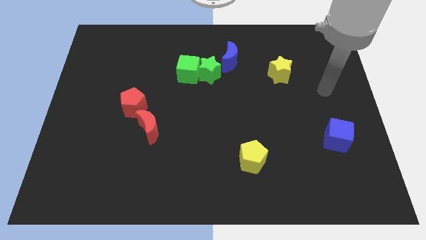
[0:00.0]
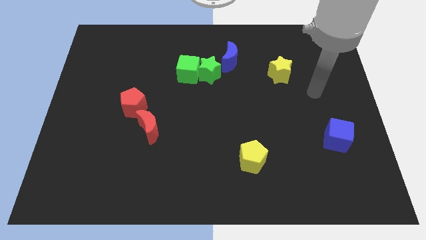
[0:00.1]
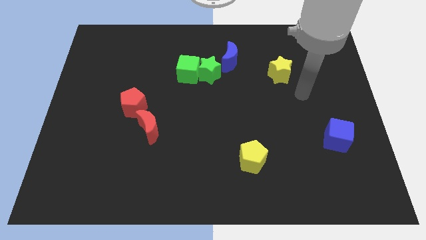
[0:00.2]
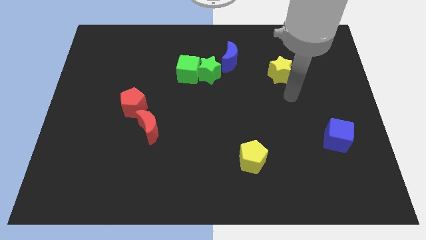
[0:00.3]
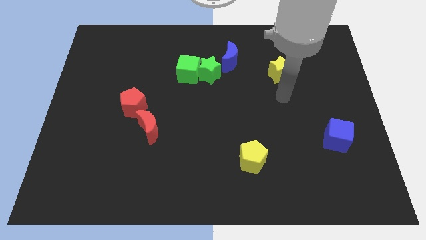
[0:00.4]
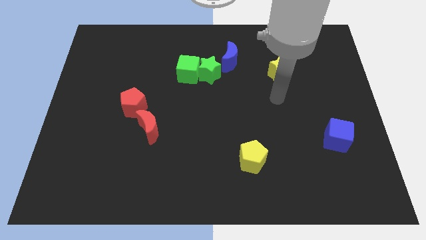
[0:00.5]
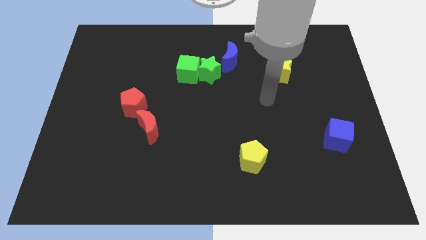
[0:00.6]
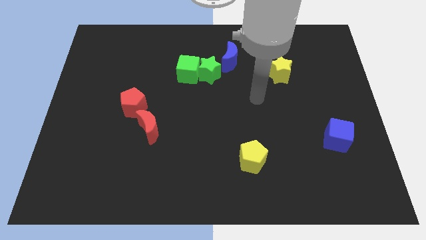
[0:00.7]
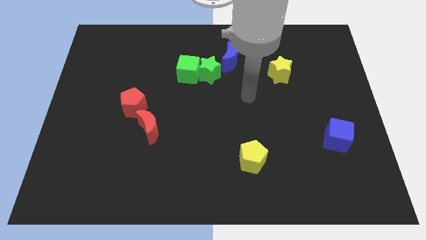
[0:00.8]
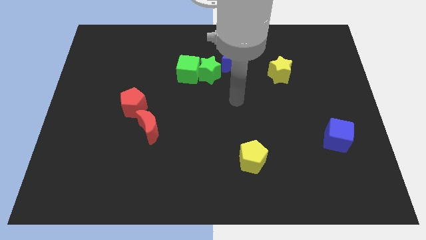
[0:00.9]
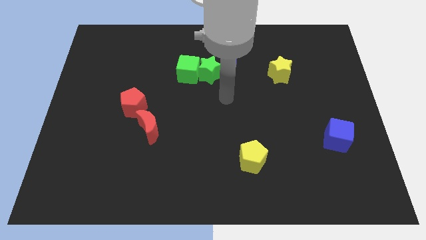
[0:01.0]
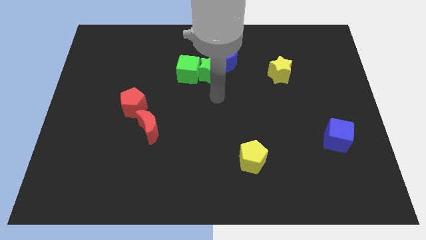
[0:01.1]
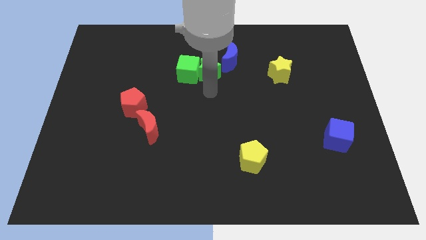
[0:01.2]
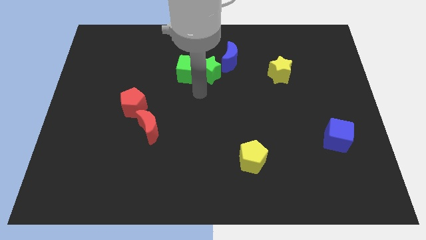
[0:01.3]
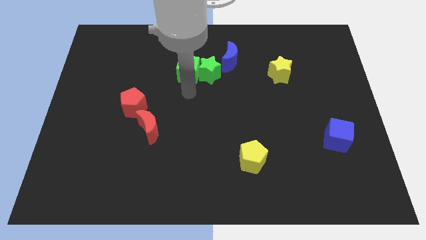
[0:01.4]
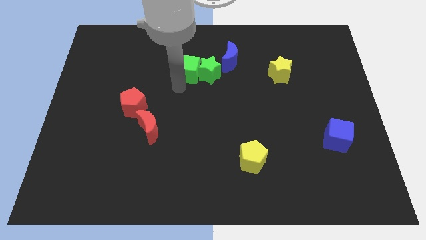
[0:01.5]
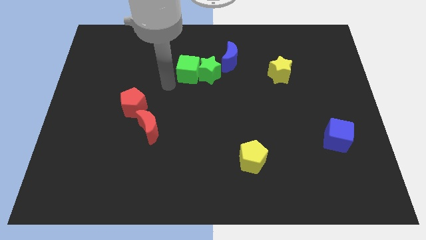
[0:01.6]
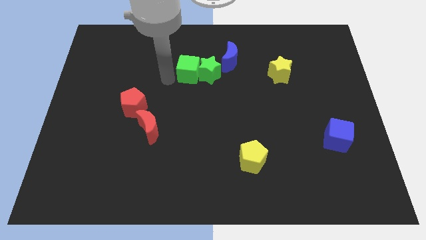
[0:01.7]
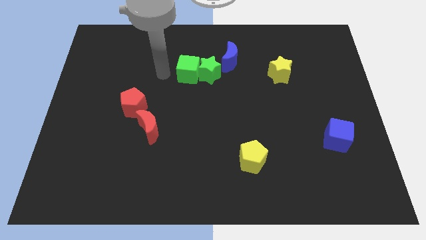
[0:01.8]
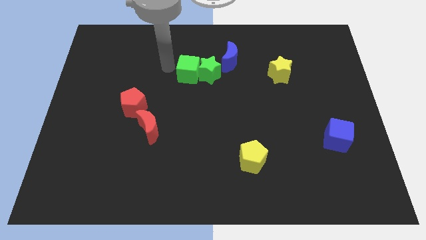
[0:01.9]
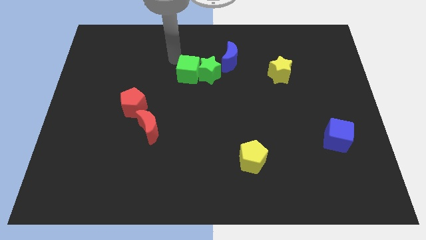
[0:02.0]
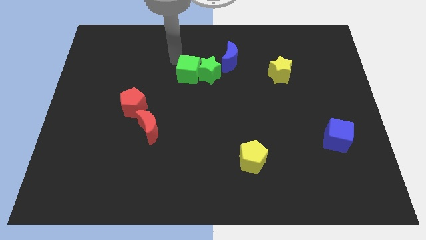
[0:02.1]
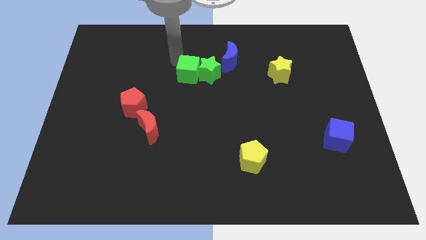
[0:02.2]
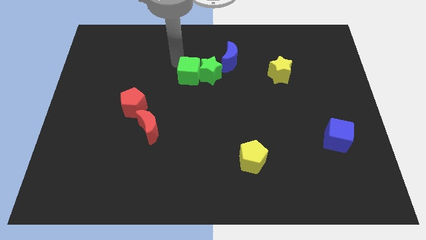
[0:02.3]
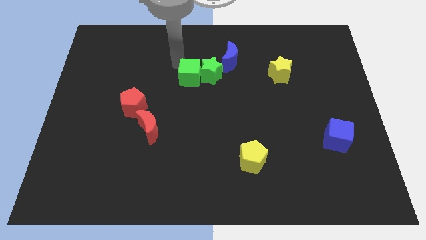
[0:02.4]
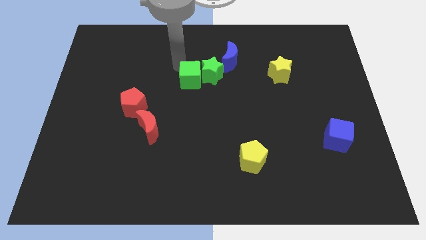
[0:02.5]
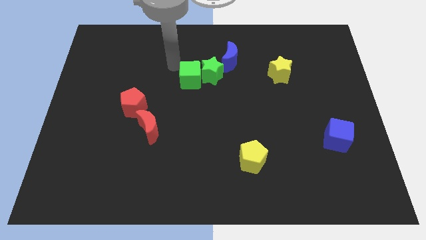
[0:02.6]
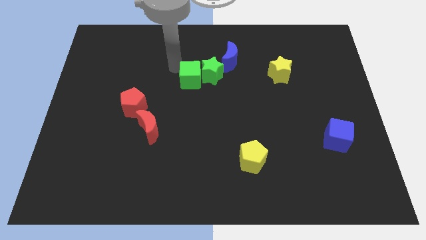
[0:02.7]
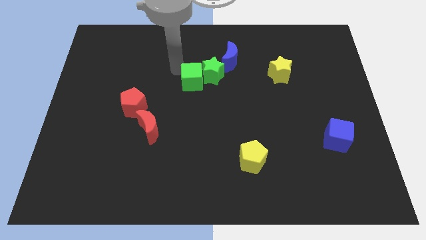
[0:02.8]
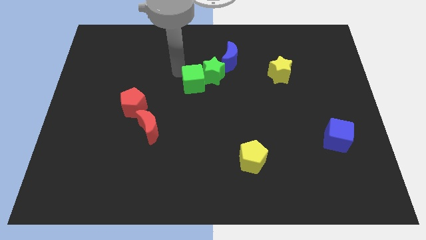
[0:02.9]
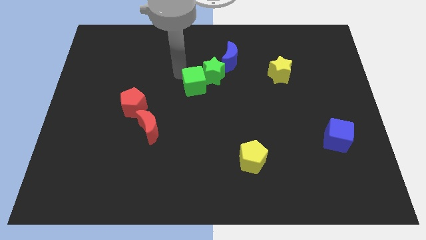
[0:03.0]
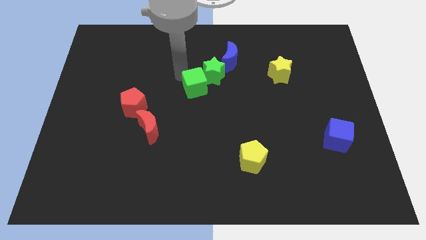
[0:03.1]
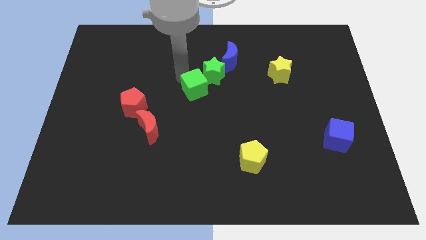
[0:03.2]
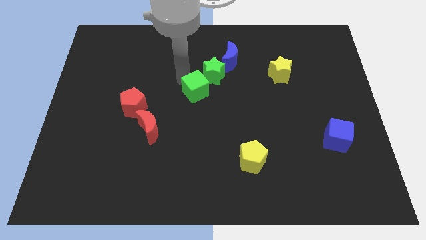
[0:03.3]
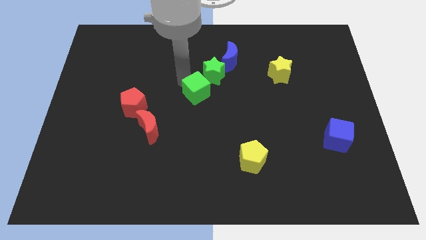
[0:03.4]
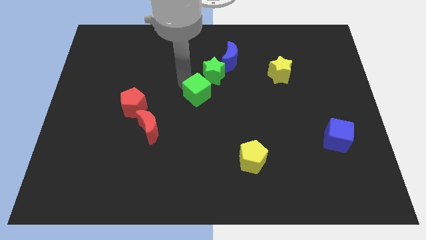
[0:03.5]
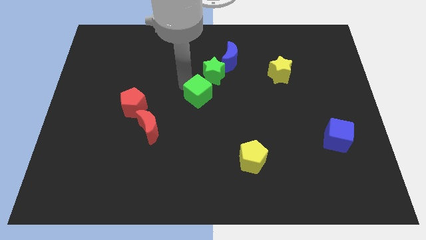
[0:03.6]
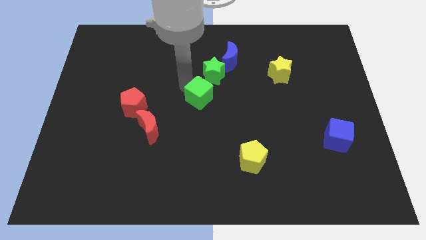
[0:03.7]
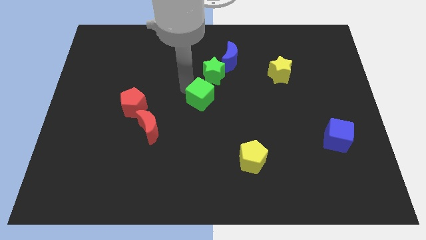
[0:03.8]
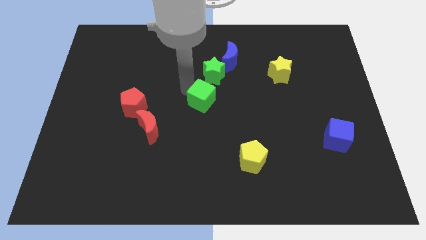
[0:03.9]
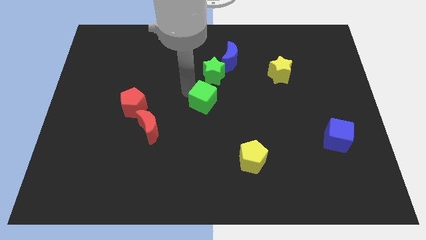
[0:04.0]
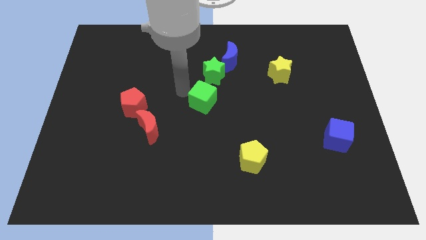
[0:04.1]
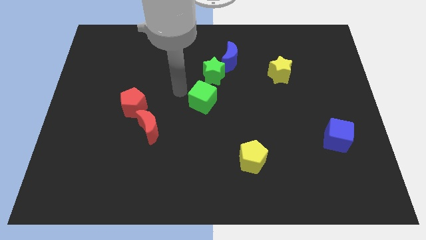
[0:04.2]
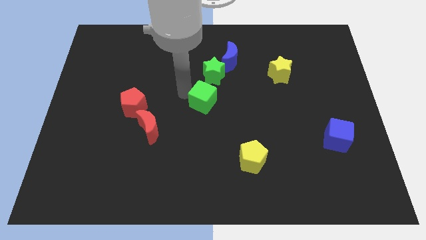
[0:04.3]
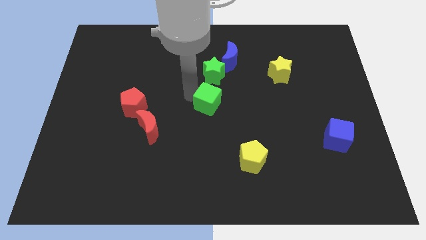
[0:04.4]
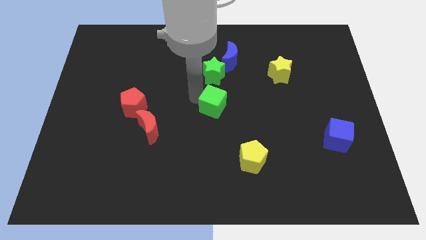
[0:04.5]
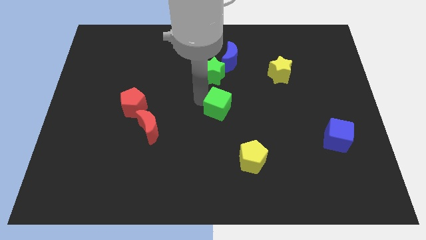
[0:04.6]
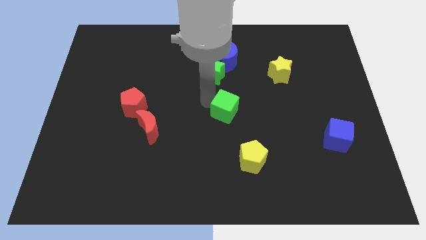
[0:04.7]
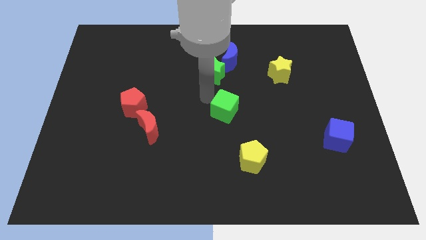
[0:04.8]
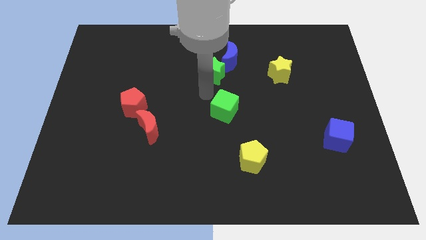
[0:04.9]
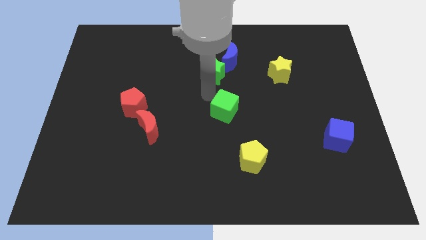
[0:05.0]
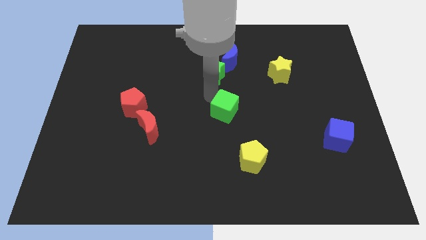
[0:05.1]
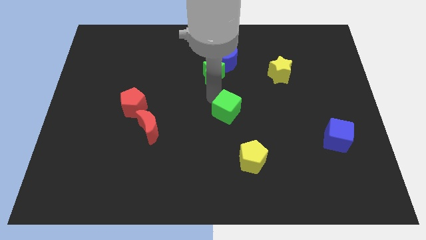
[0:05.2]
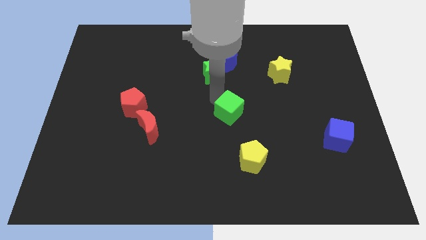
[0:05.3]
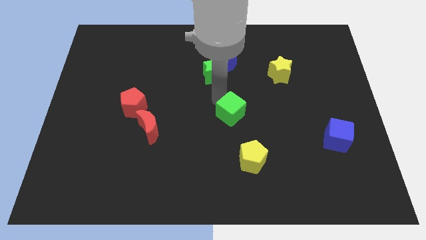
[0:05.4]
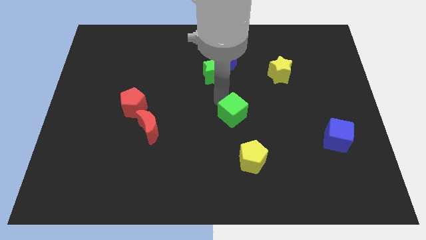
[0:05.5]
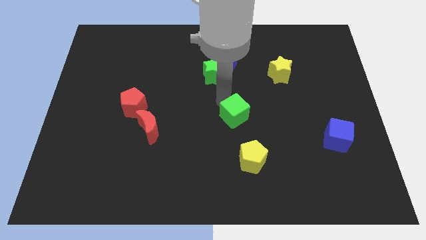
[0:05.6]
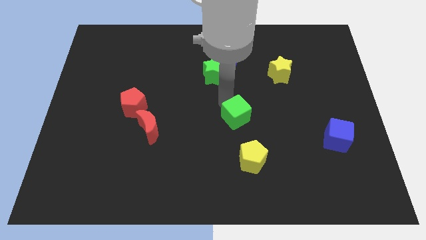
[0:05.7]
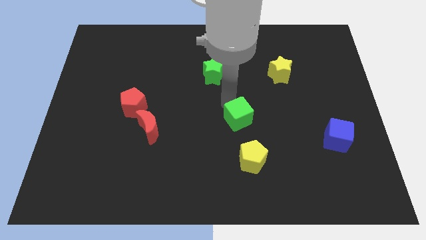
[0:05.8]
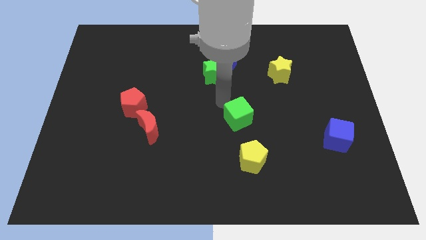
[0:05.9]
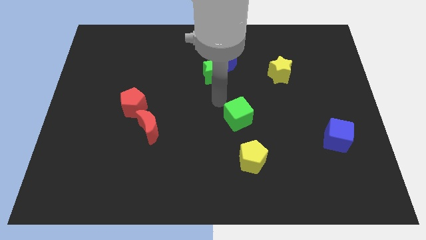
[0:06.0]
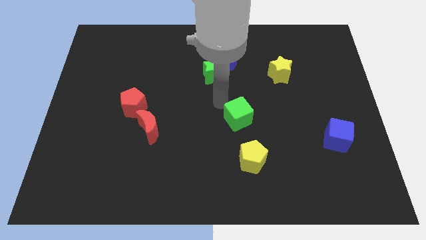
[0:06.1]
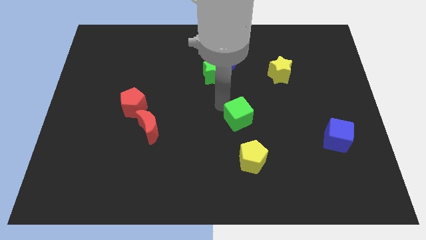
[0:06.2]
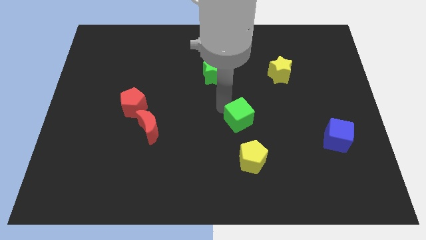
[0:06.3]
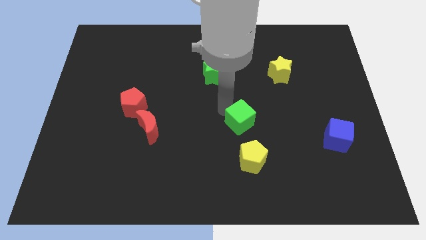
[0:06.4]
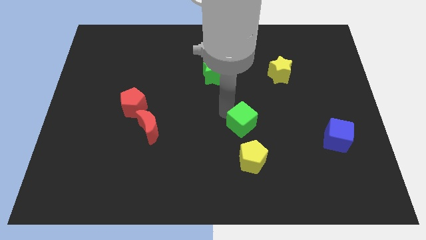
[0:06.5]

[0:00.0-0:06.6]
move the green cube downwards and to the right

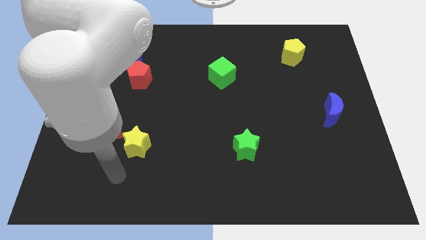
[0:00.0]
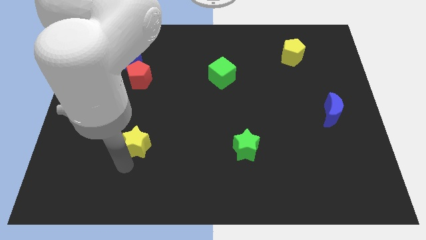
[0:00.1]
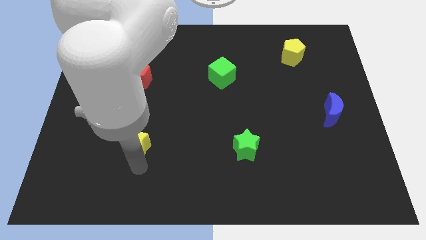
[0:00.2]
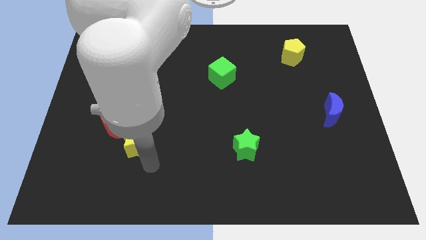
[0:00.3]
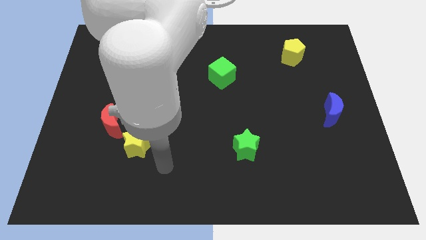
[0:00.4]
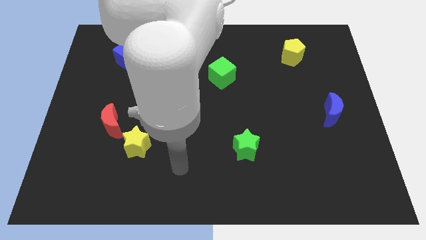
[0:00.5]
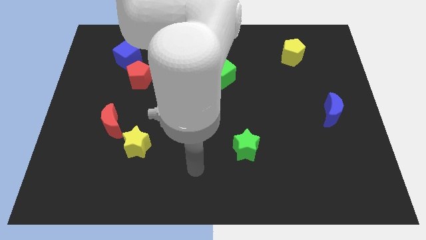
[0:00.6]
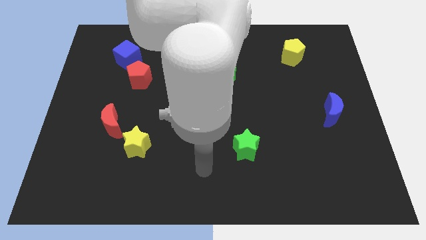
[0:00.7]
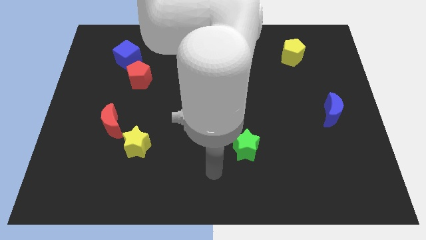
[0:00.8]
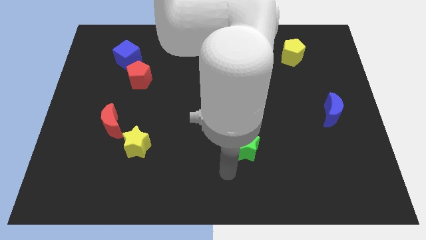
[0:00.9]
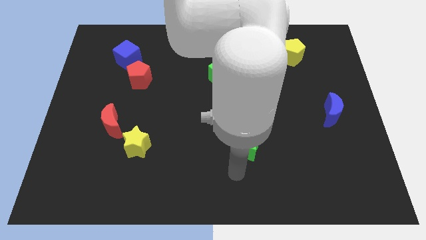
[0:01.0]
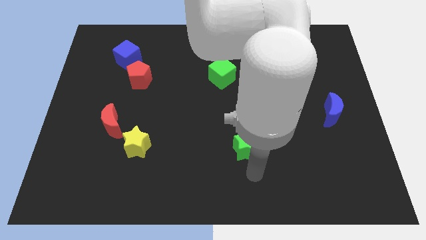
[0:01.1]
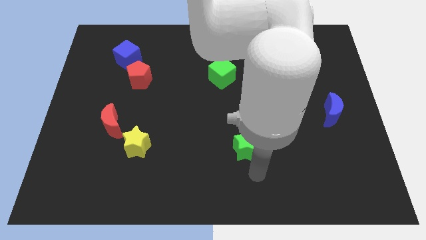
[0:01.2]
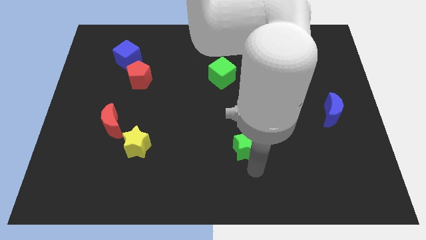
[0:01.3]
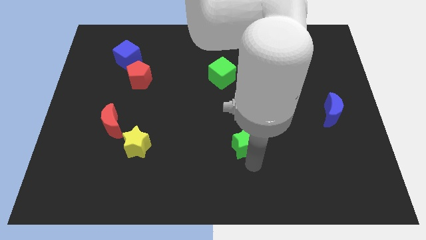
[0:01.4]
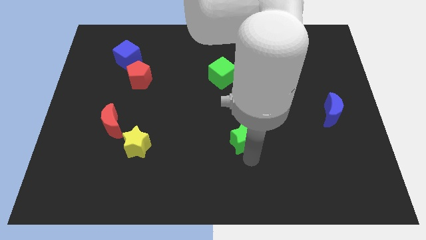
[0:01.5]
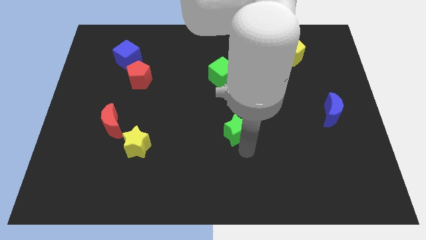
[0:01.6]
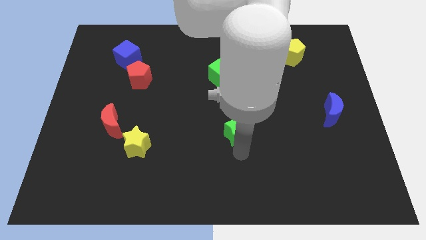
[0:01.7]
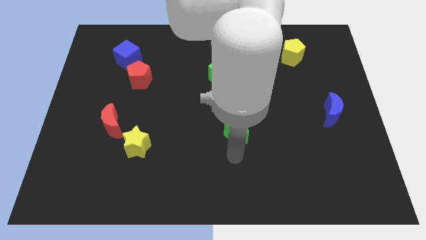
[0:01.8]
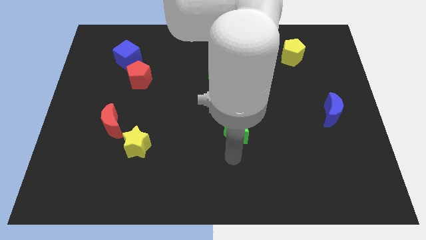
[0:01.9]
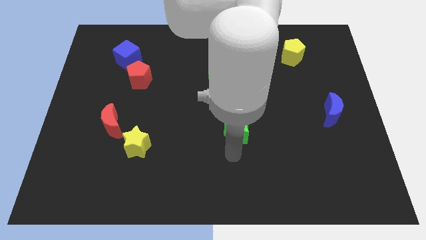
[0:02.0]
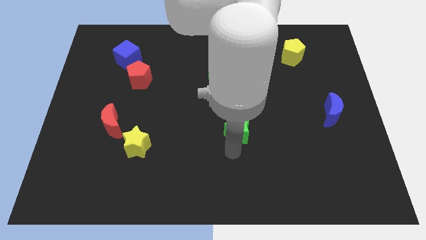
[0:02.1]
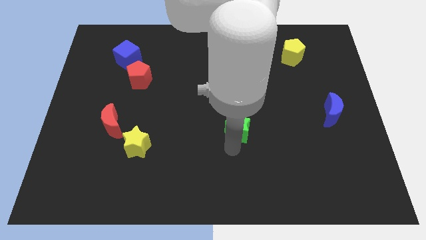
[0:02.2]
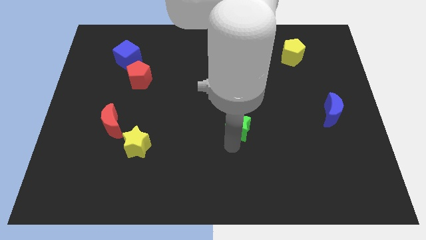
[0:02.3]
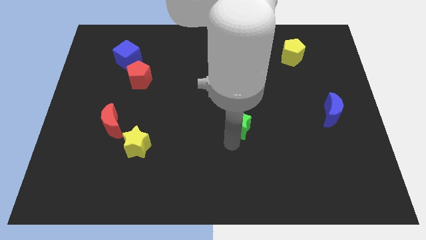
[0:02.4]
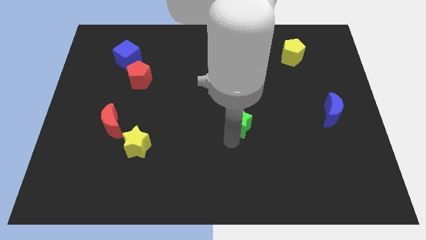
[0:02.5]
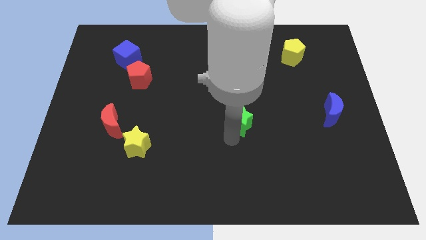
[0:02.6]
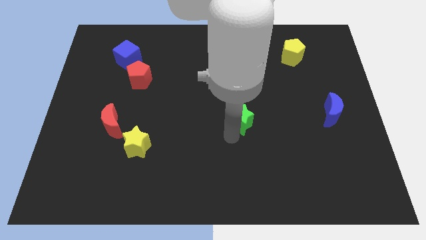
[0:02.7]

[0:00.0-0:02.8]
move the green star slightly upwards
